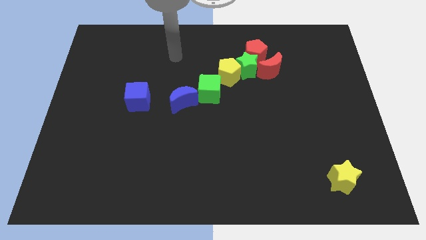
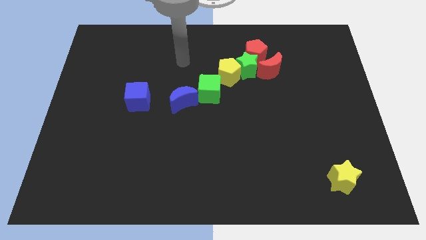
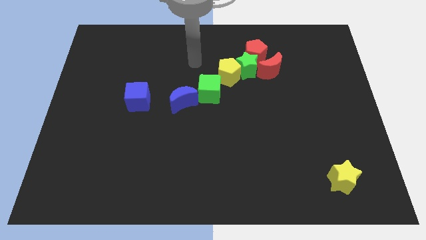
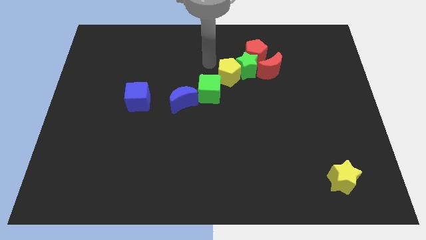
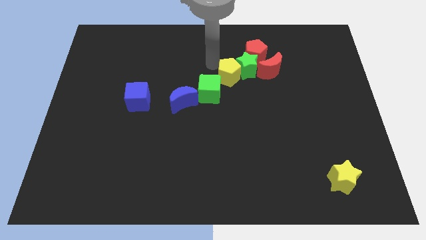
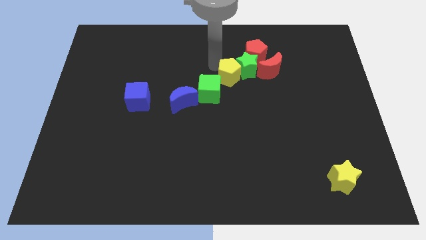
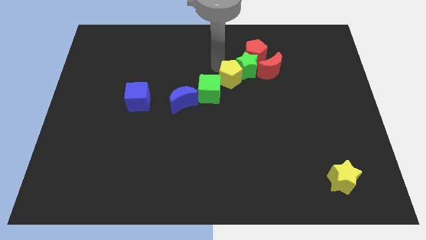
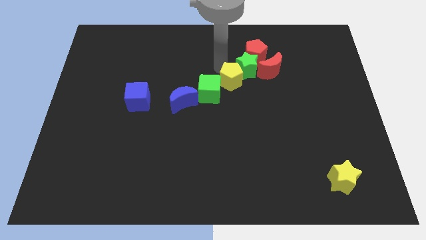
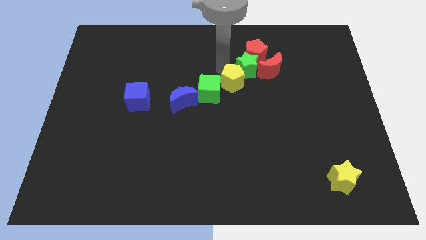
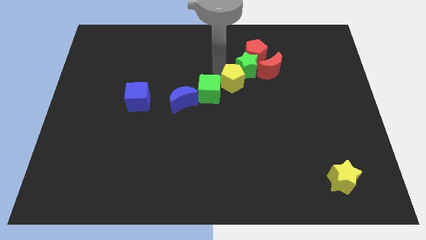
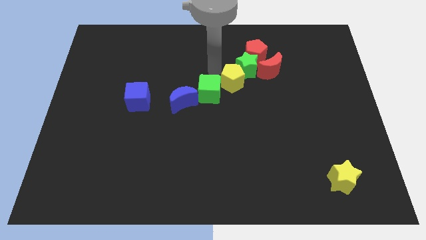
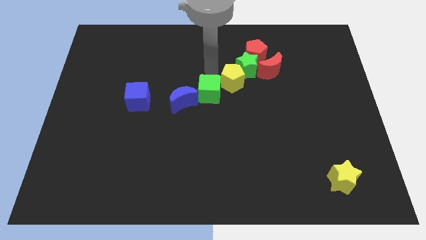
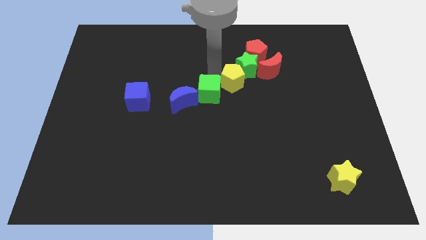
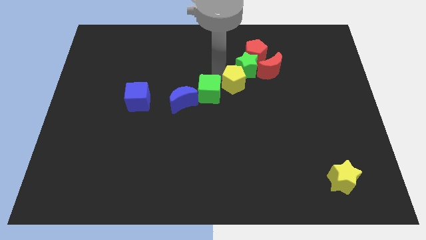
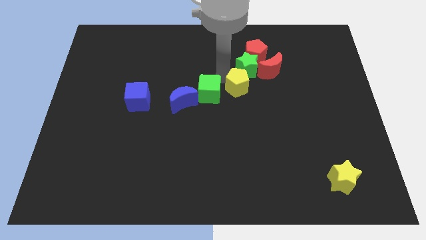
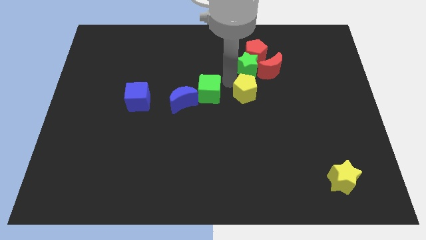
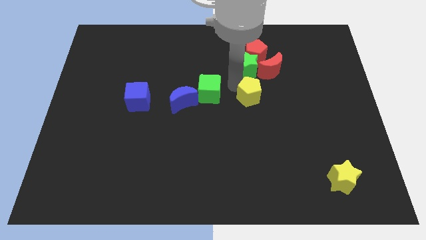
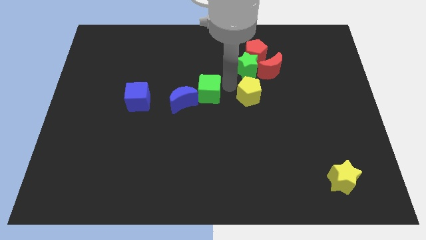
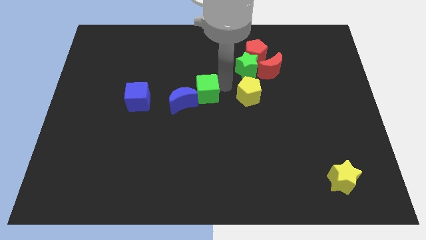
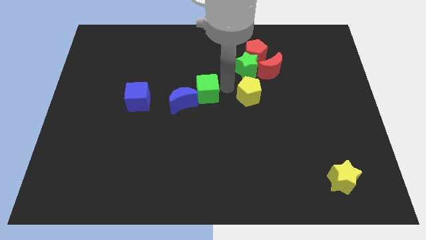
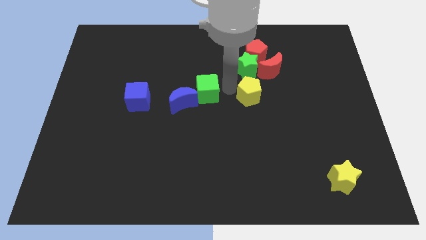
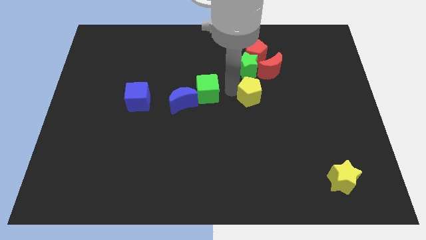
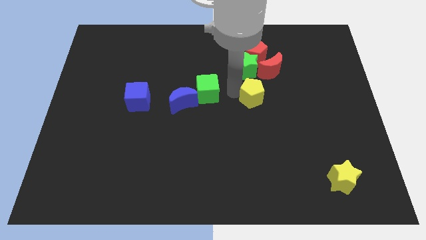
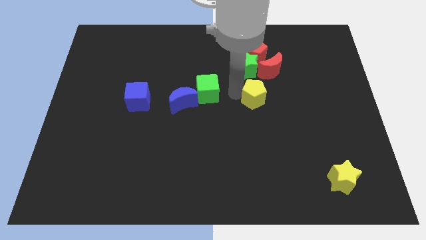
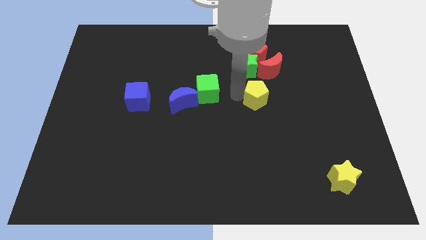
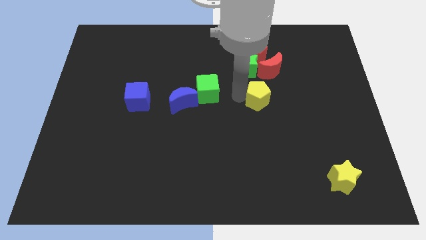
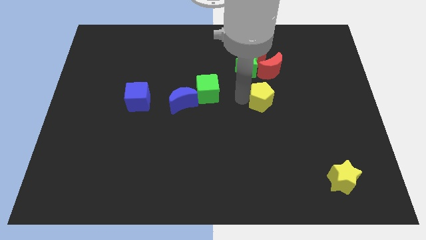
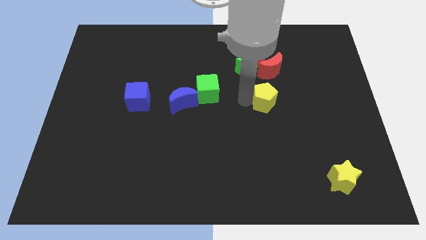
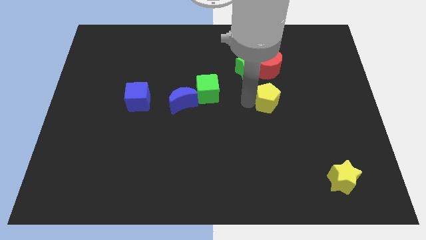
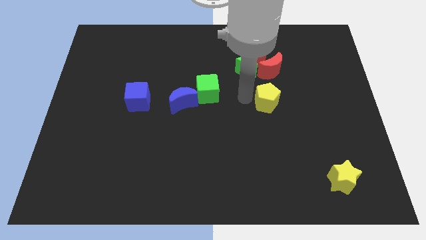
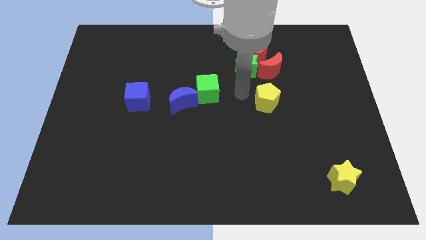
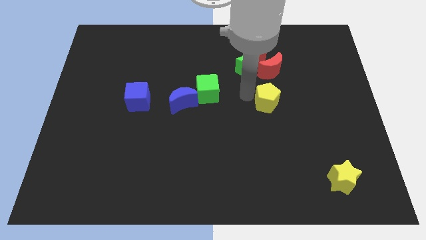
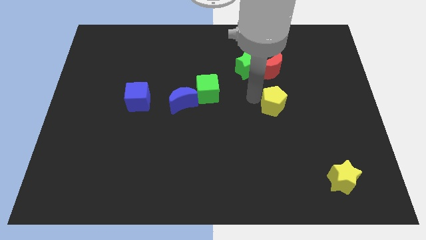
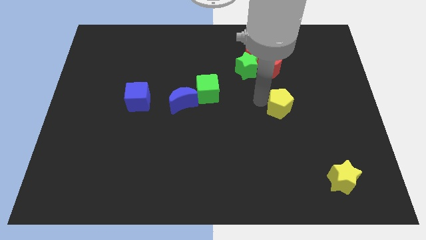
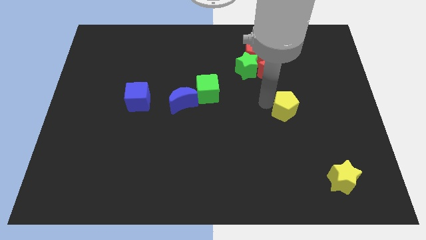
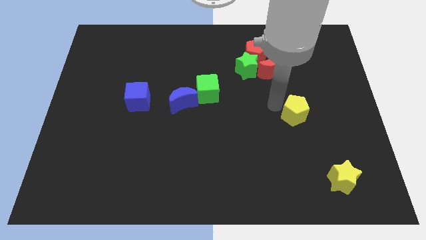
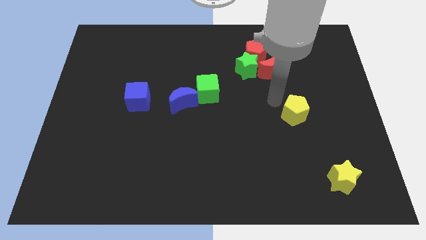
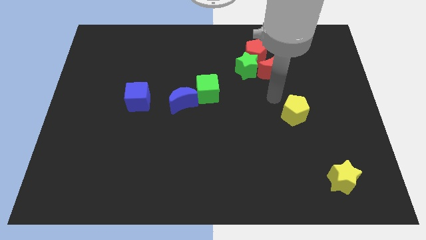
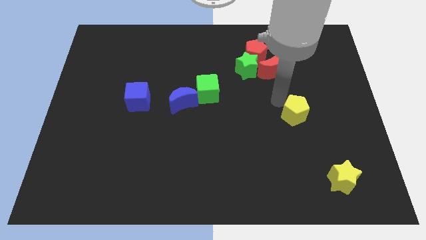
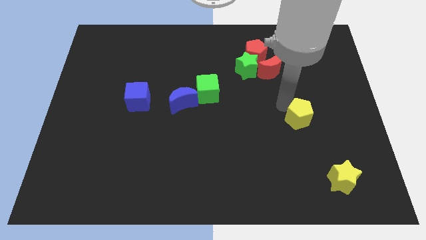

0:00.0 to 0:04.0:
push the yellow pentagon down and to the right diagonally

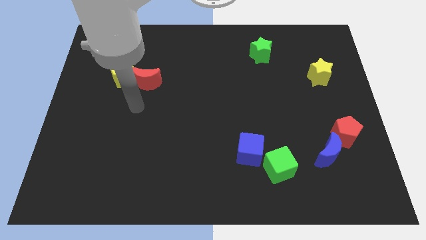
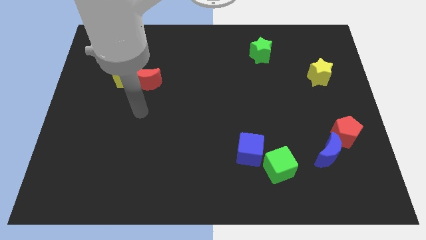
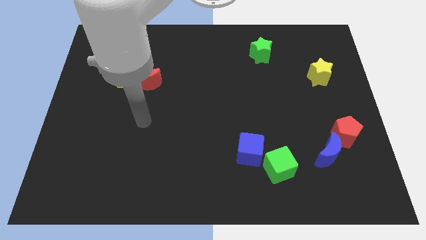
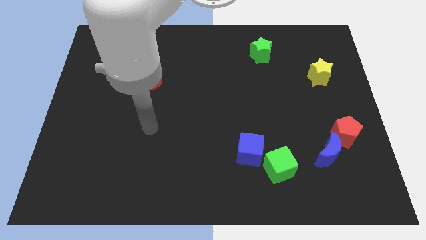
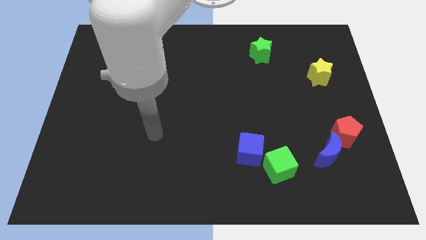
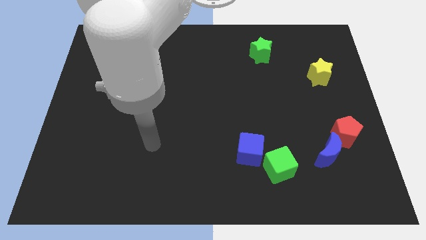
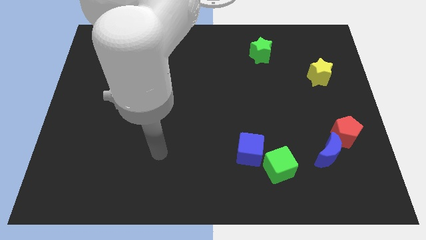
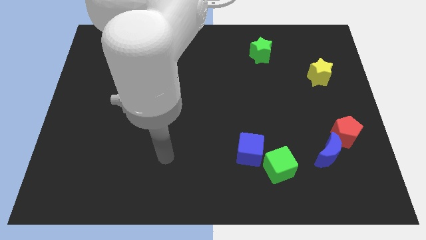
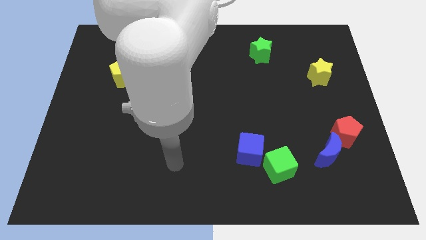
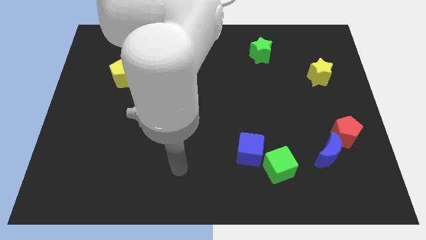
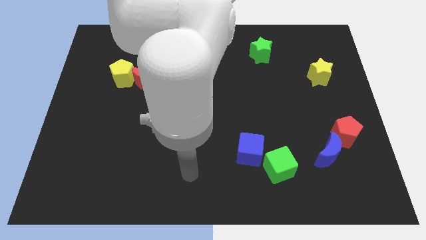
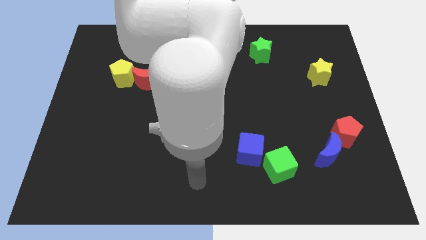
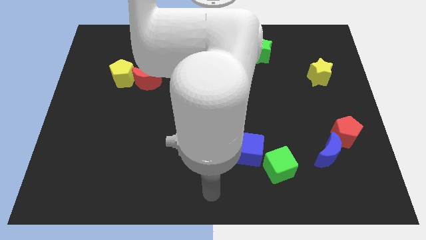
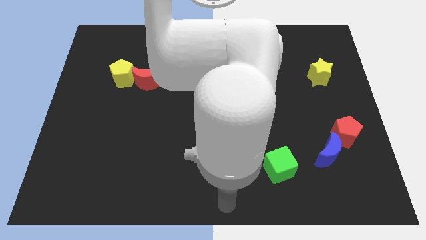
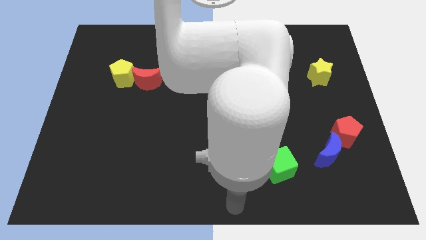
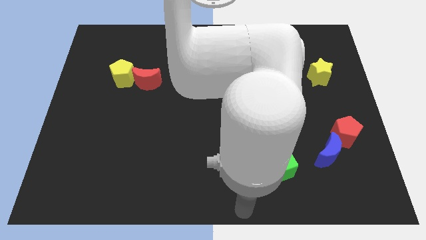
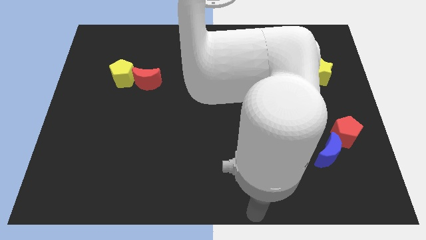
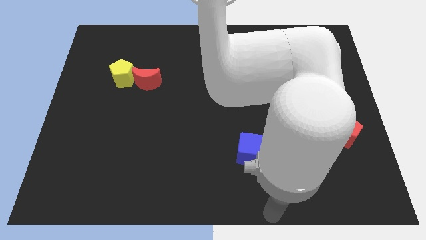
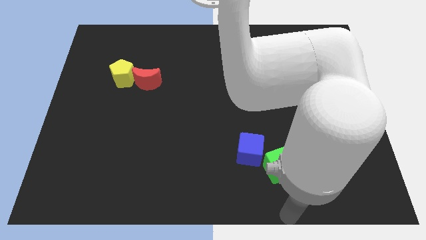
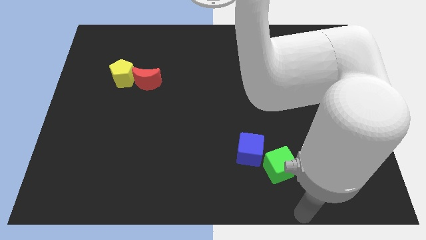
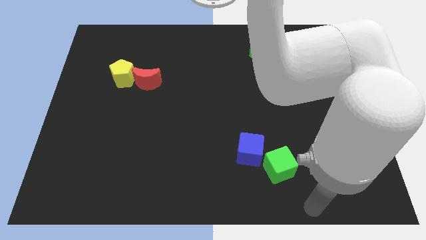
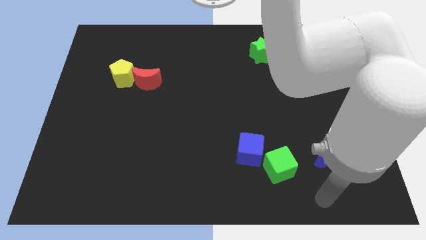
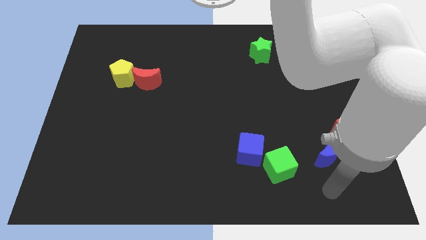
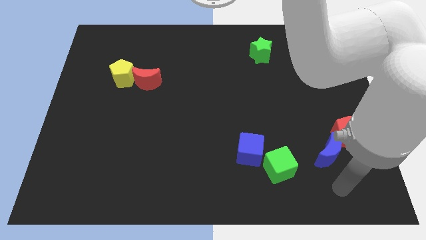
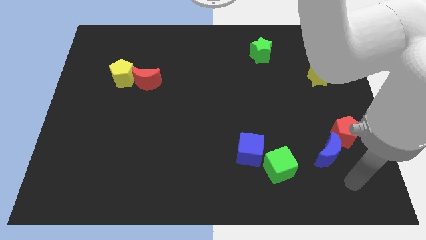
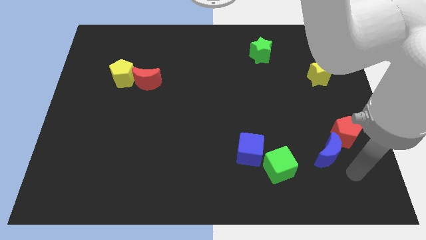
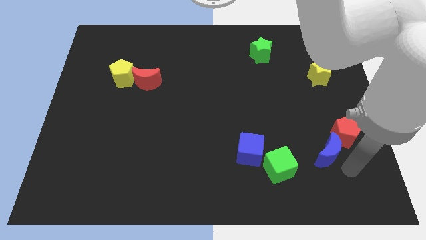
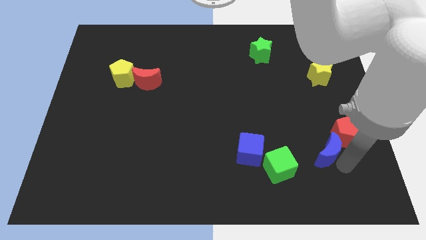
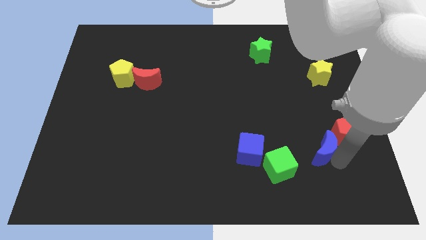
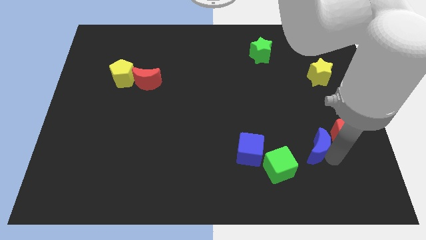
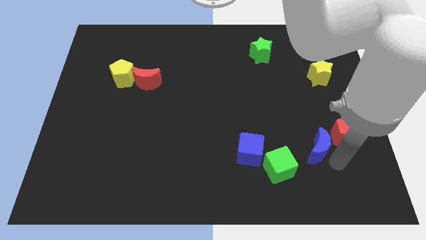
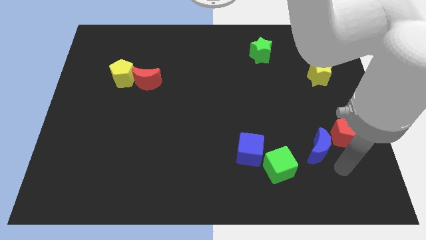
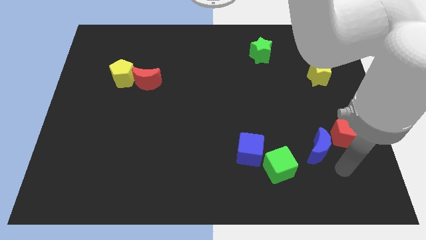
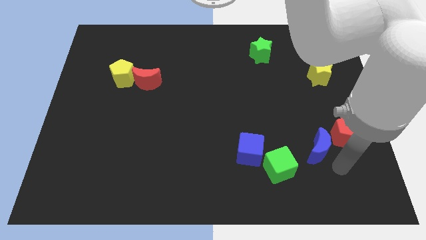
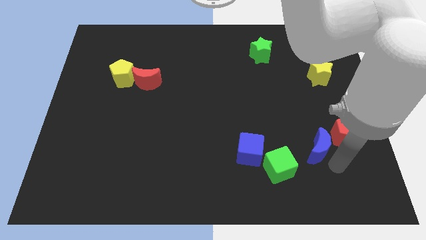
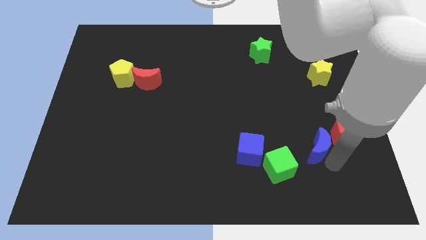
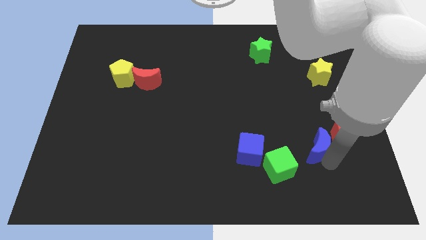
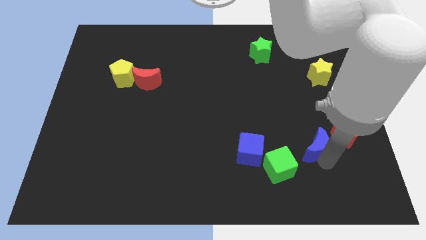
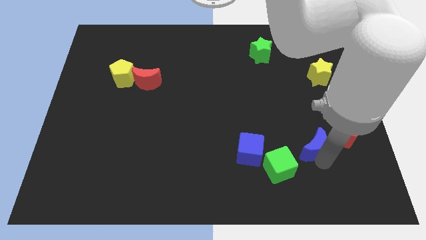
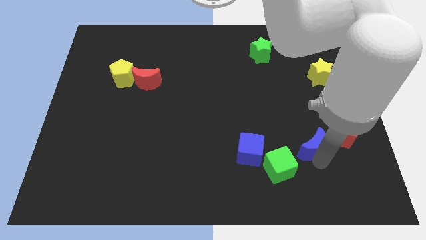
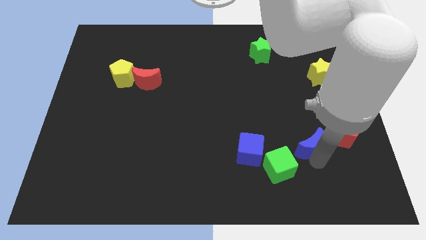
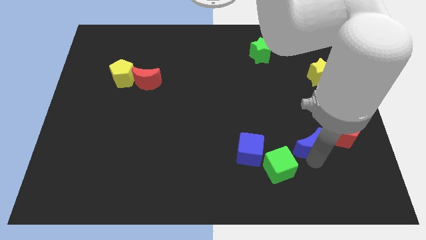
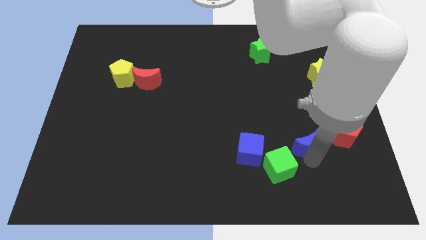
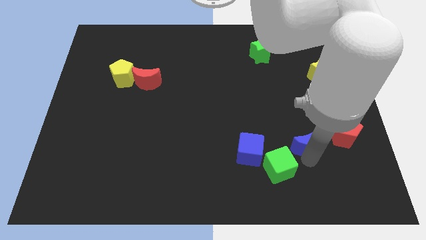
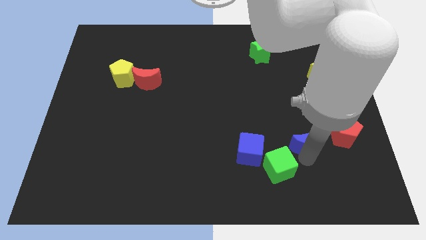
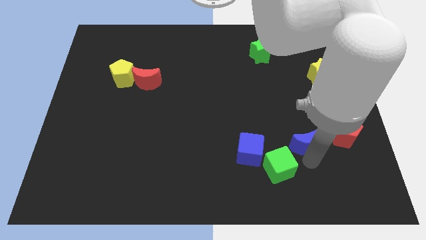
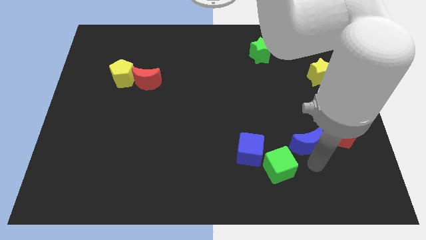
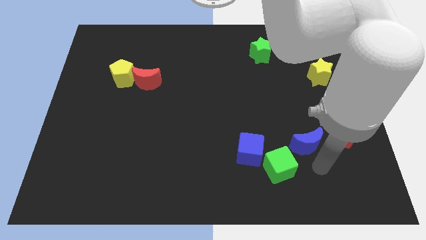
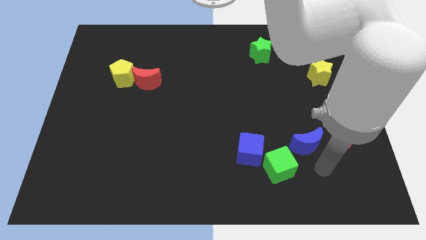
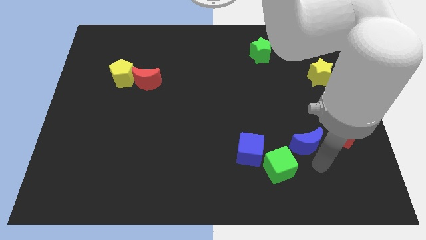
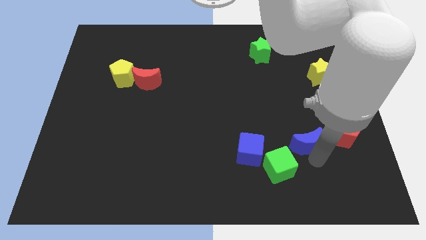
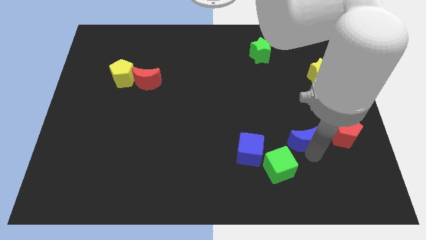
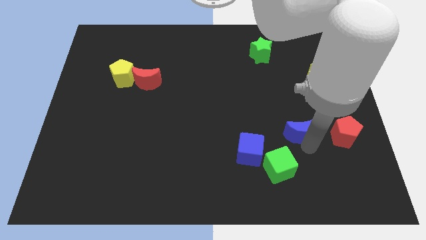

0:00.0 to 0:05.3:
slightly move the blue moon up and then left
